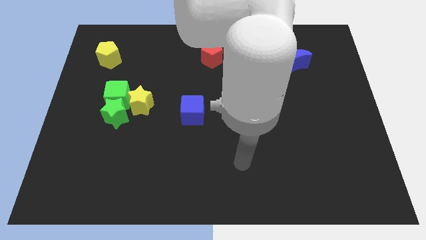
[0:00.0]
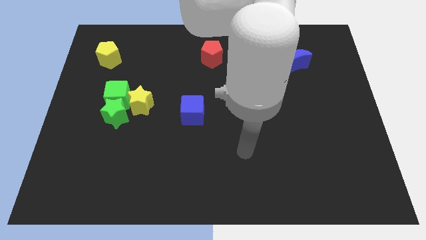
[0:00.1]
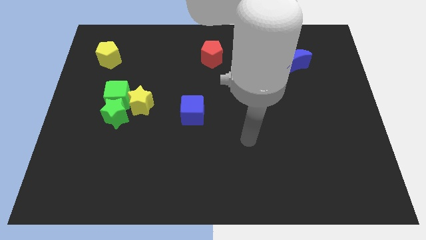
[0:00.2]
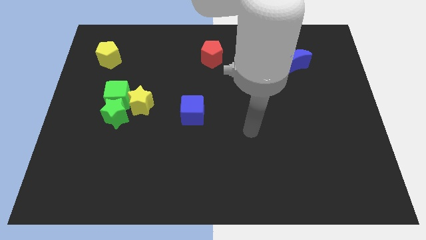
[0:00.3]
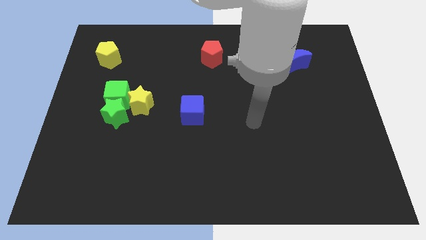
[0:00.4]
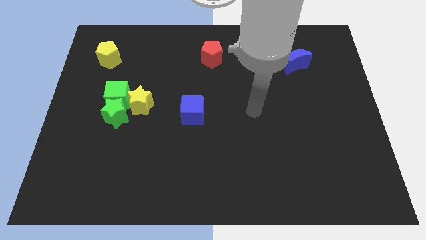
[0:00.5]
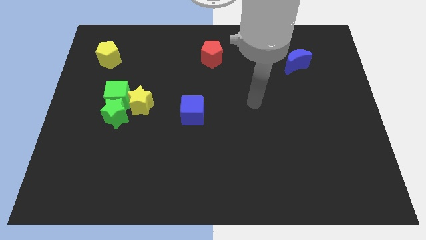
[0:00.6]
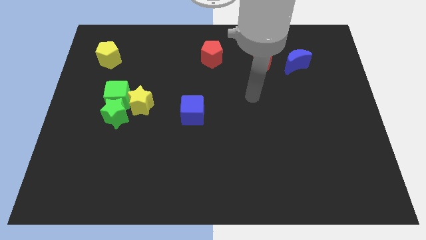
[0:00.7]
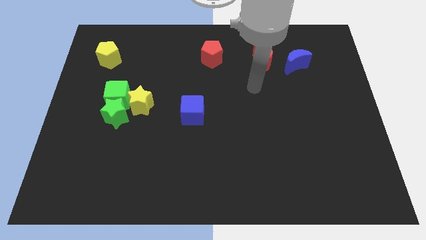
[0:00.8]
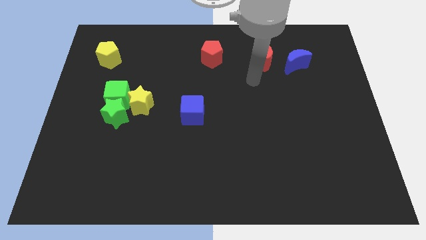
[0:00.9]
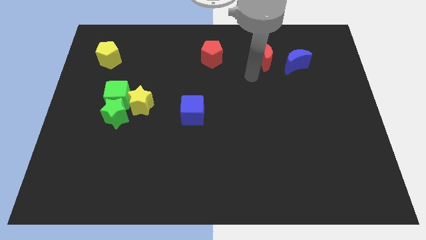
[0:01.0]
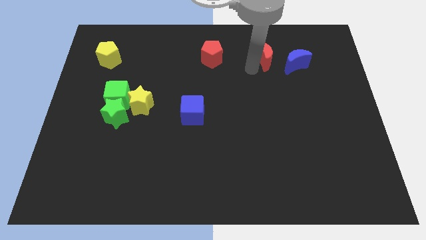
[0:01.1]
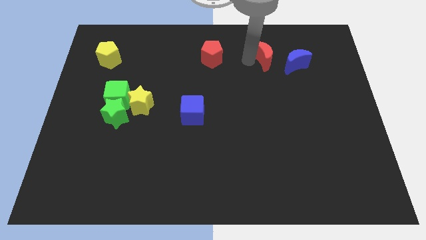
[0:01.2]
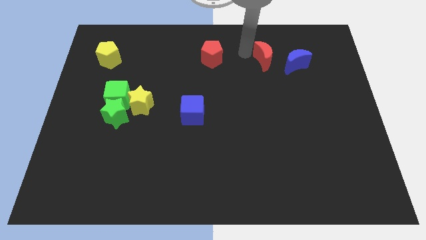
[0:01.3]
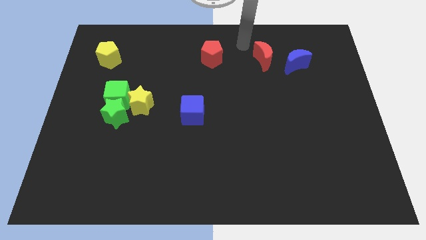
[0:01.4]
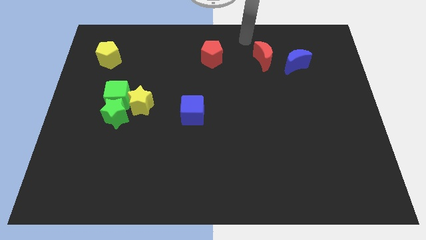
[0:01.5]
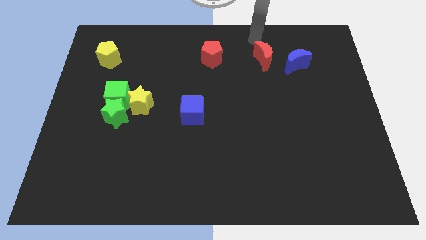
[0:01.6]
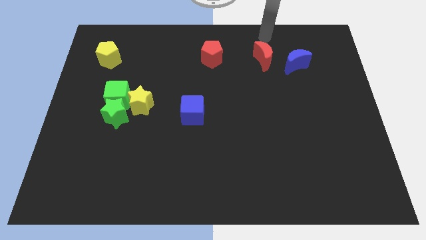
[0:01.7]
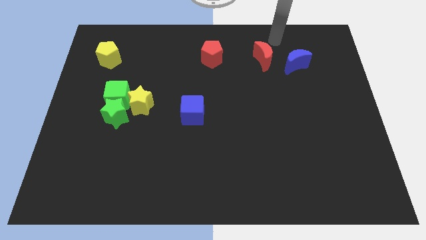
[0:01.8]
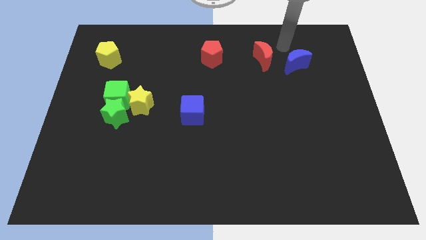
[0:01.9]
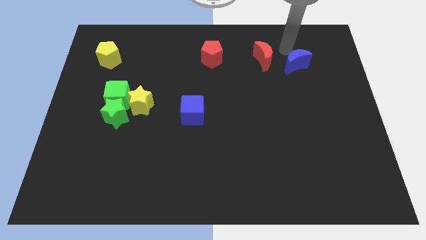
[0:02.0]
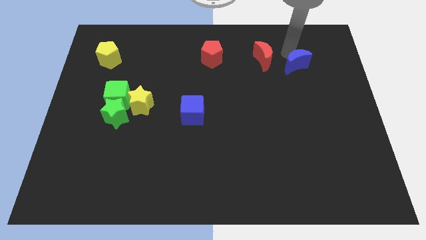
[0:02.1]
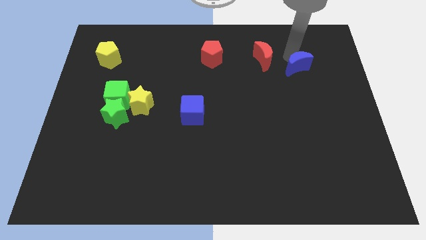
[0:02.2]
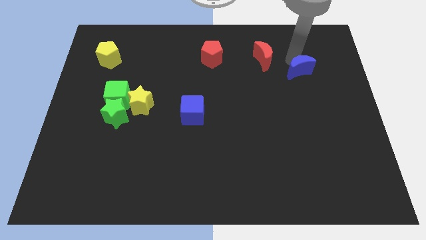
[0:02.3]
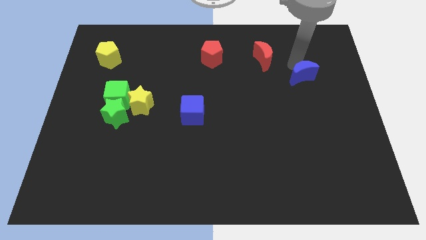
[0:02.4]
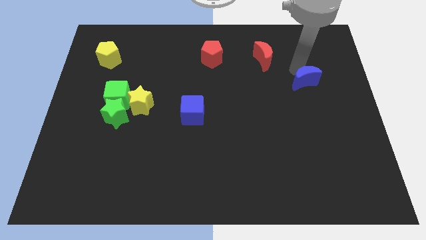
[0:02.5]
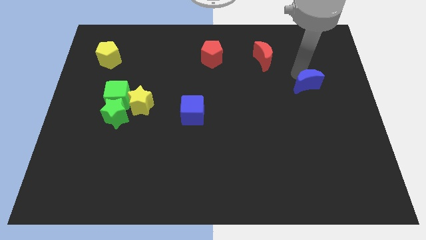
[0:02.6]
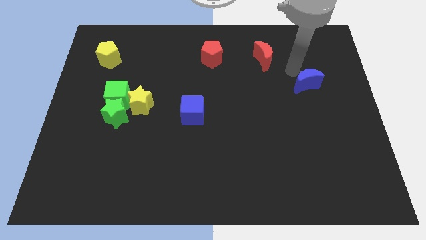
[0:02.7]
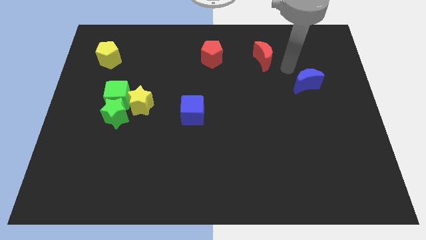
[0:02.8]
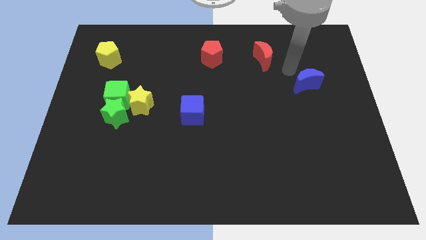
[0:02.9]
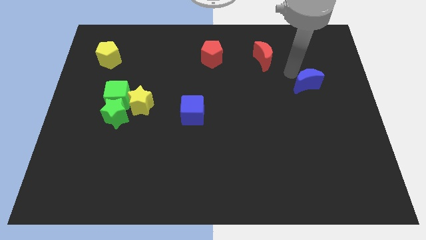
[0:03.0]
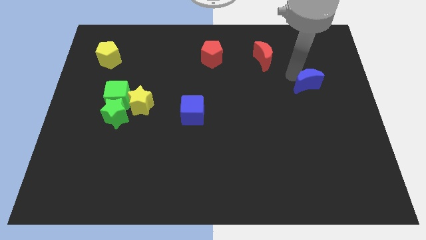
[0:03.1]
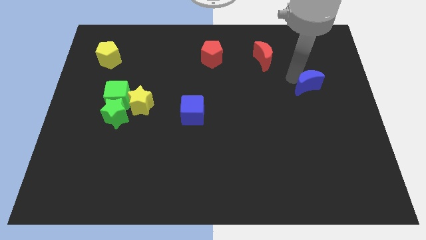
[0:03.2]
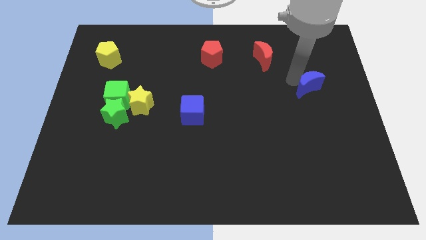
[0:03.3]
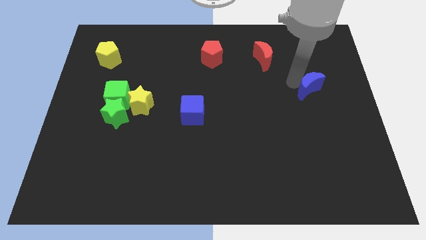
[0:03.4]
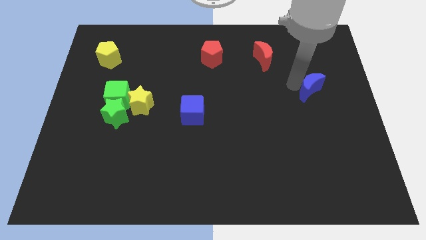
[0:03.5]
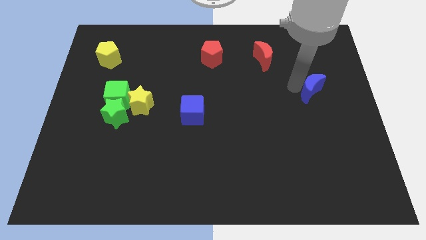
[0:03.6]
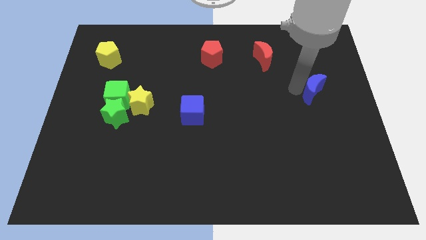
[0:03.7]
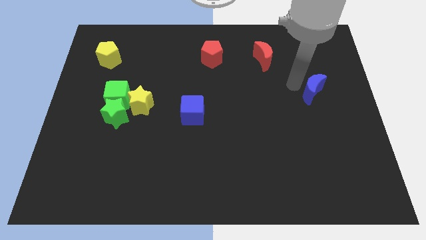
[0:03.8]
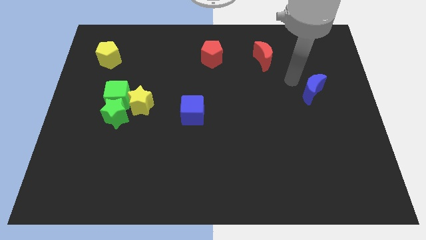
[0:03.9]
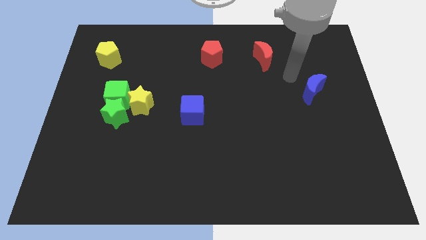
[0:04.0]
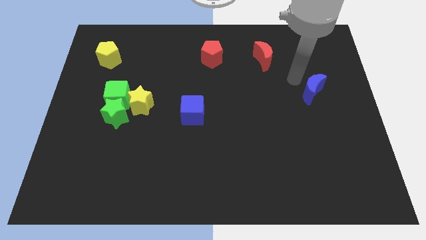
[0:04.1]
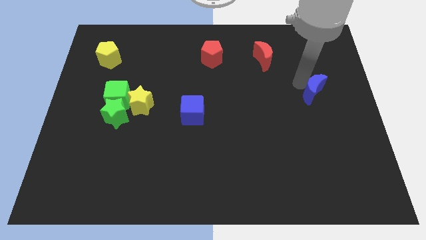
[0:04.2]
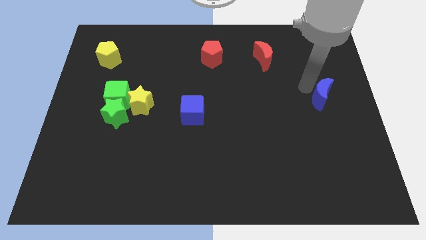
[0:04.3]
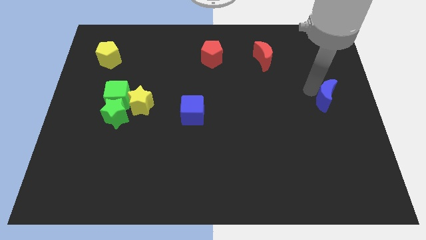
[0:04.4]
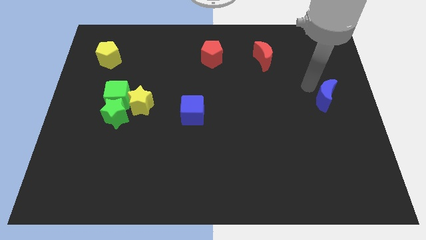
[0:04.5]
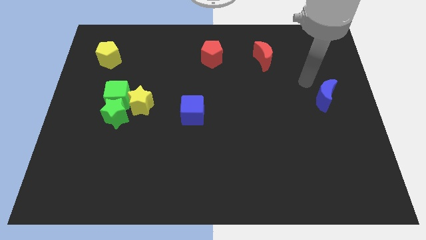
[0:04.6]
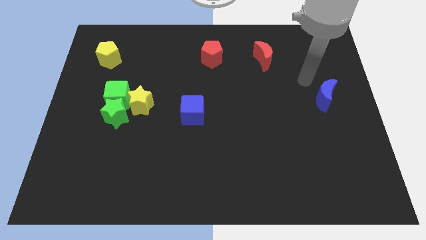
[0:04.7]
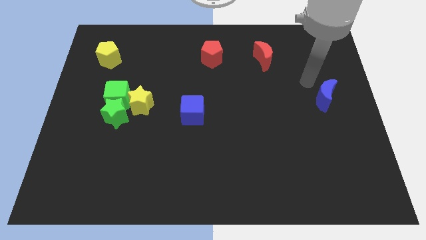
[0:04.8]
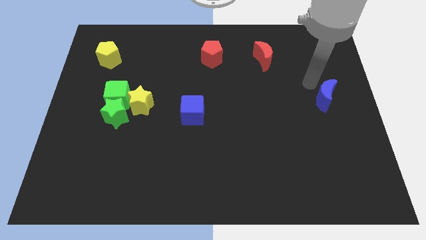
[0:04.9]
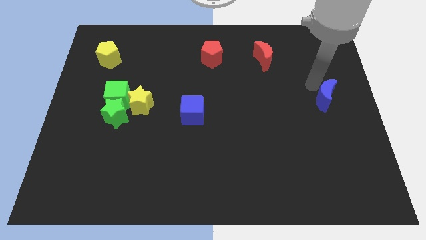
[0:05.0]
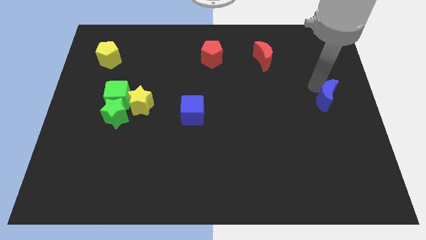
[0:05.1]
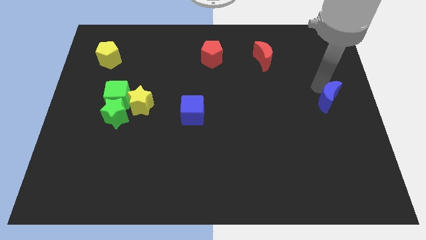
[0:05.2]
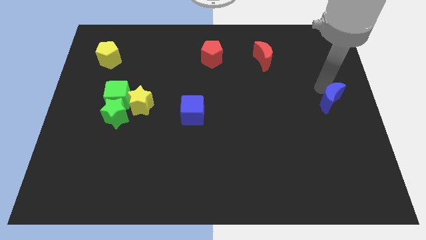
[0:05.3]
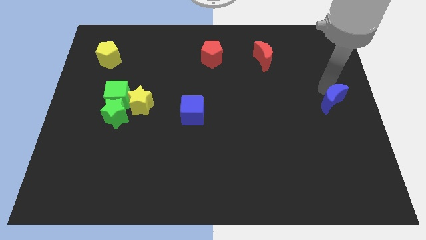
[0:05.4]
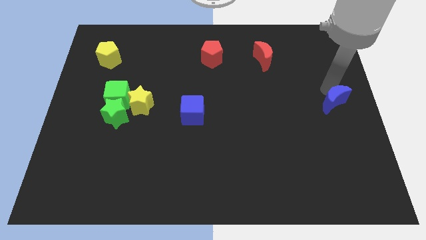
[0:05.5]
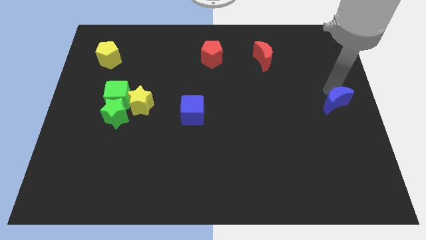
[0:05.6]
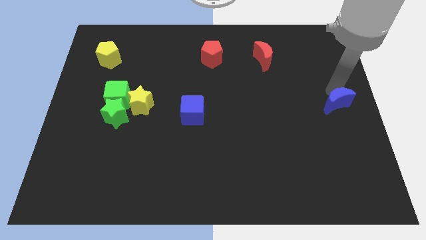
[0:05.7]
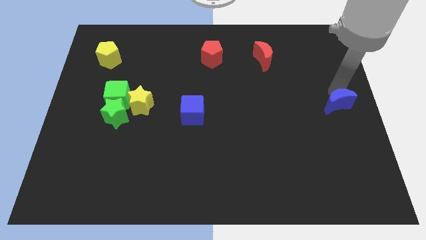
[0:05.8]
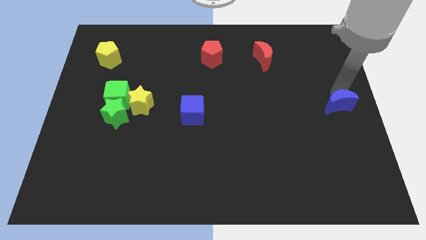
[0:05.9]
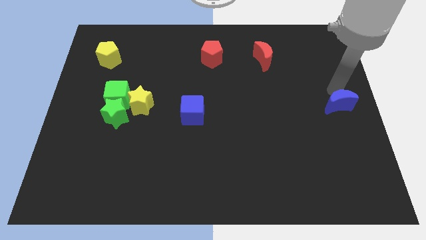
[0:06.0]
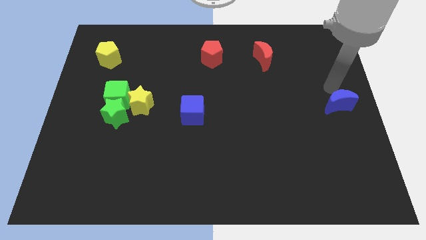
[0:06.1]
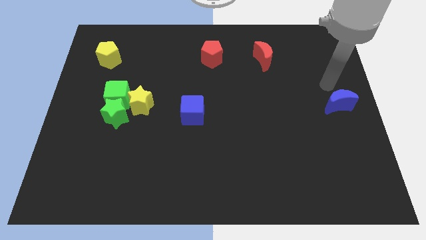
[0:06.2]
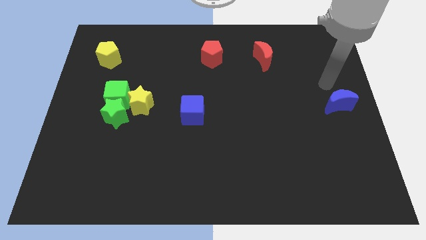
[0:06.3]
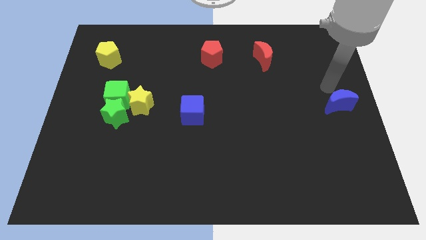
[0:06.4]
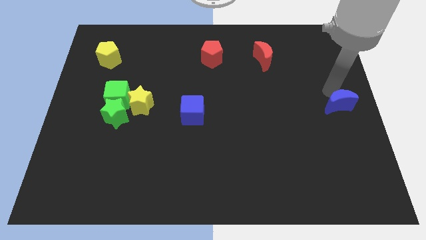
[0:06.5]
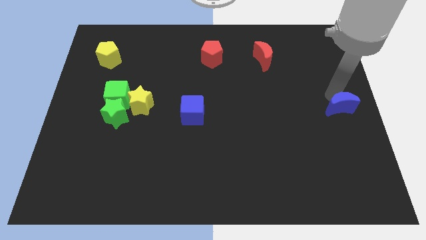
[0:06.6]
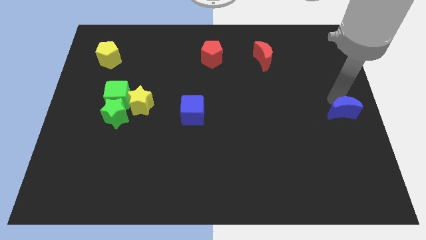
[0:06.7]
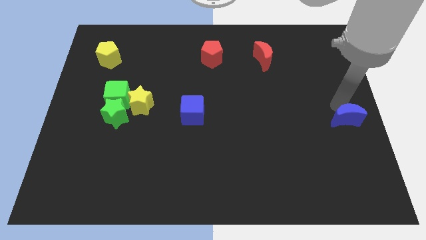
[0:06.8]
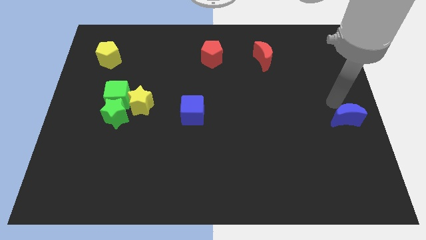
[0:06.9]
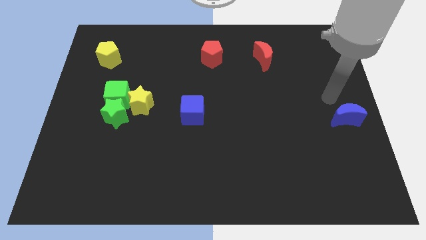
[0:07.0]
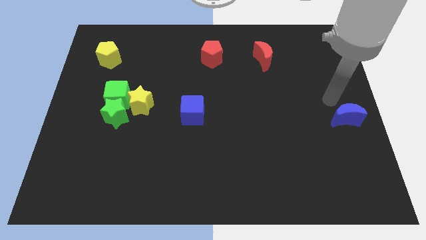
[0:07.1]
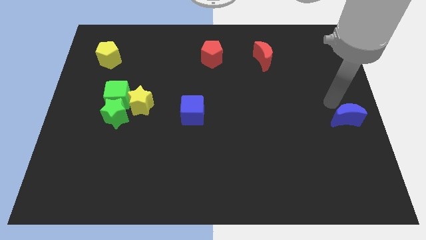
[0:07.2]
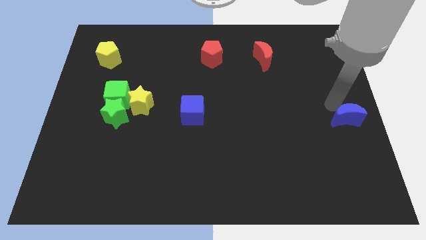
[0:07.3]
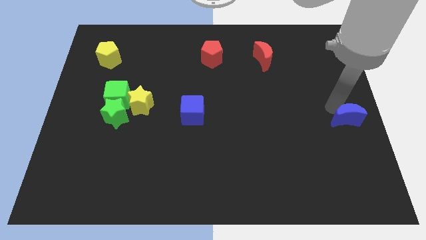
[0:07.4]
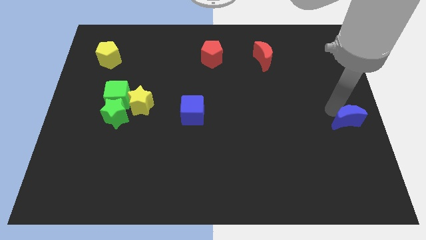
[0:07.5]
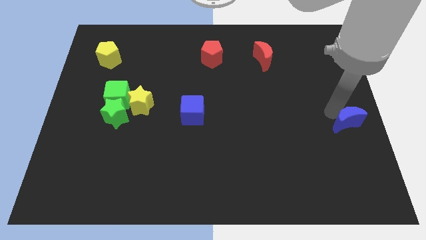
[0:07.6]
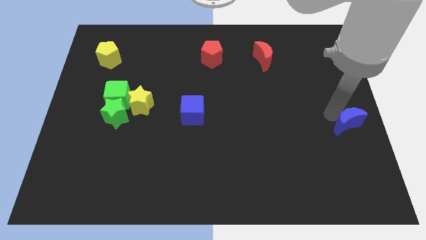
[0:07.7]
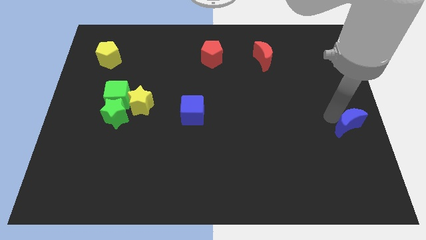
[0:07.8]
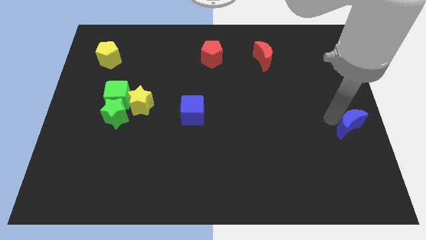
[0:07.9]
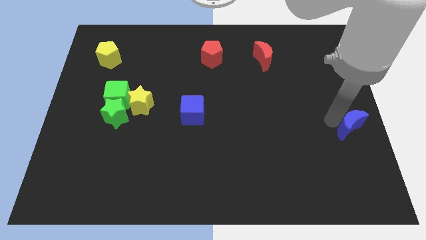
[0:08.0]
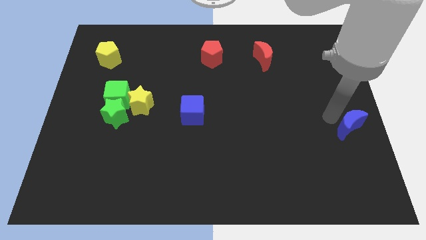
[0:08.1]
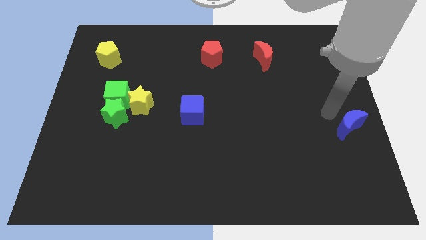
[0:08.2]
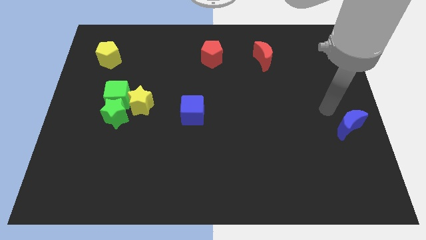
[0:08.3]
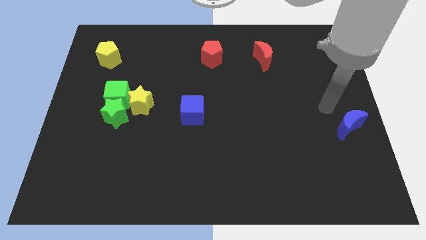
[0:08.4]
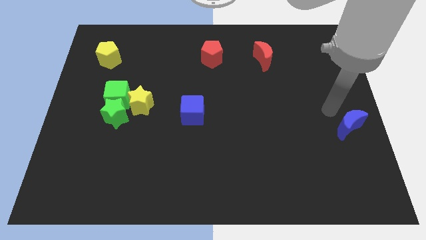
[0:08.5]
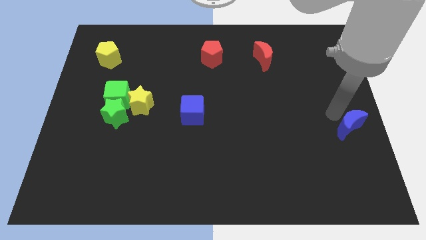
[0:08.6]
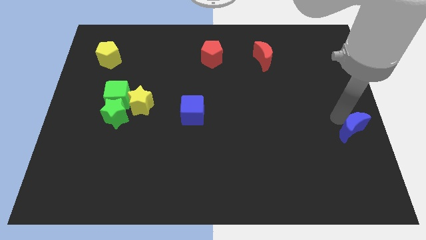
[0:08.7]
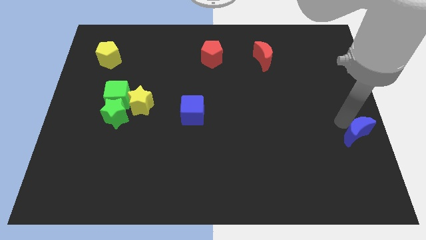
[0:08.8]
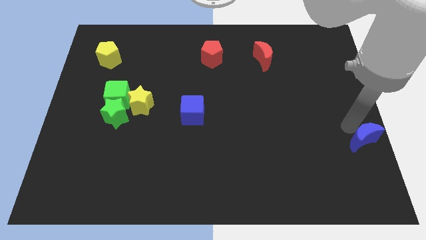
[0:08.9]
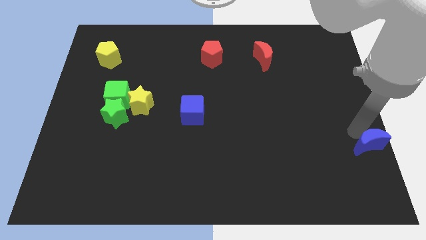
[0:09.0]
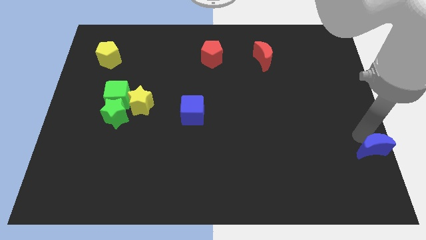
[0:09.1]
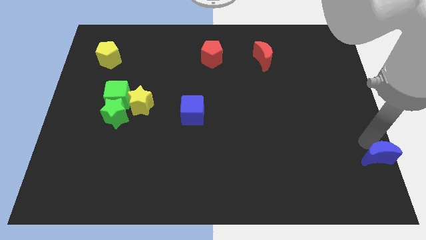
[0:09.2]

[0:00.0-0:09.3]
move the blue moon to the bottom right corner
